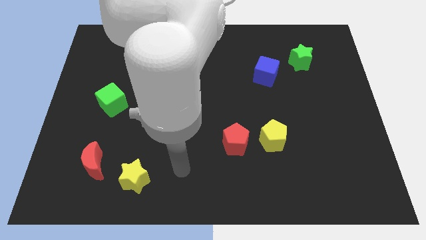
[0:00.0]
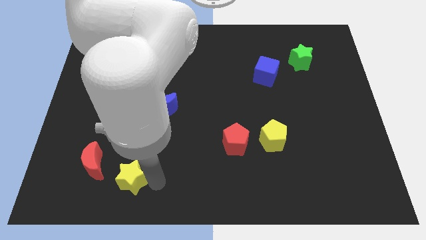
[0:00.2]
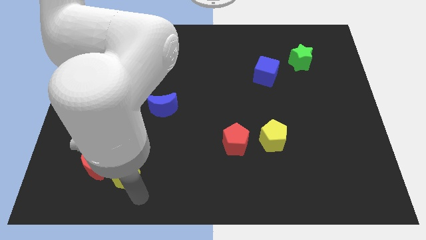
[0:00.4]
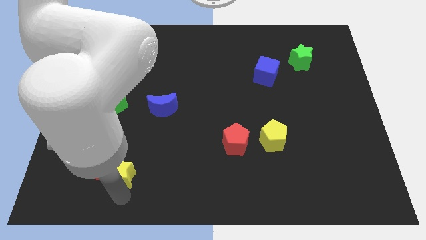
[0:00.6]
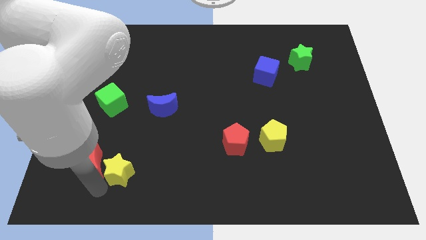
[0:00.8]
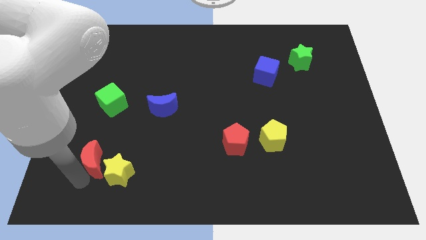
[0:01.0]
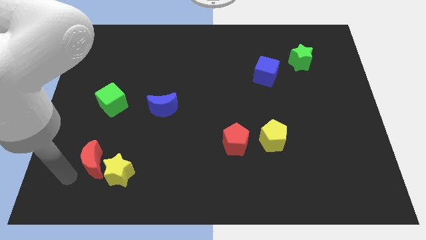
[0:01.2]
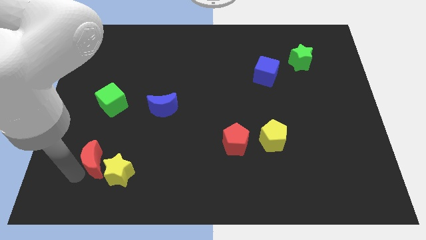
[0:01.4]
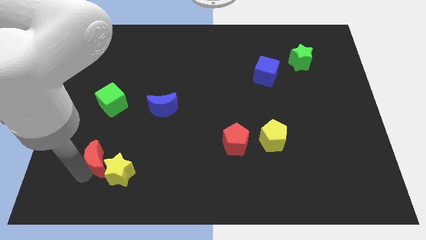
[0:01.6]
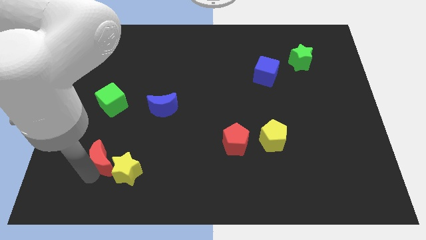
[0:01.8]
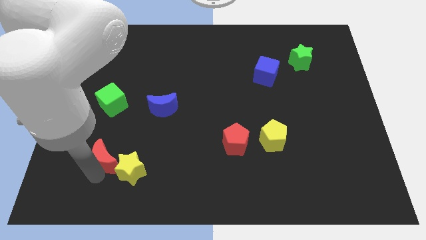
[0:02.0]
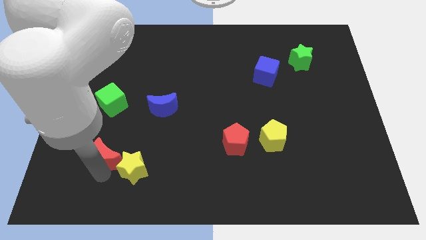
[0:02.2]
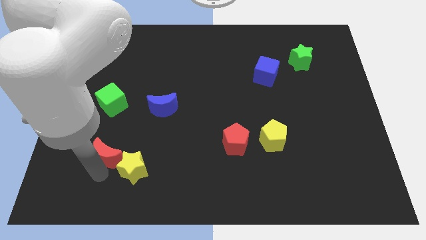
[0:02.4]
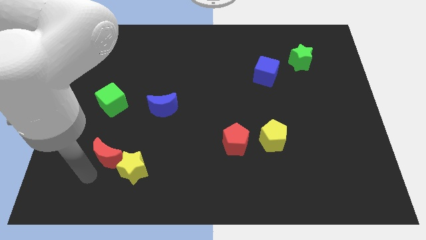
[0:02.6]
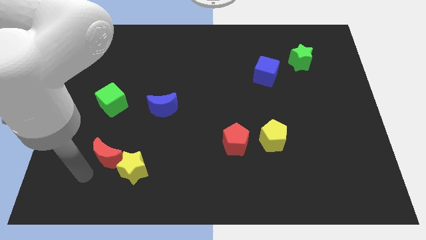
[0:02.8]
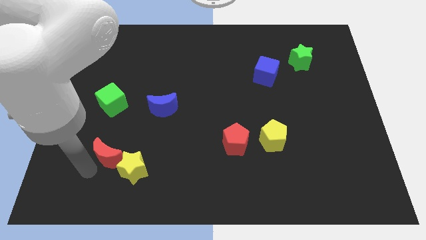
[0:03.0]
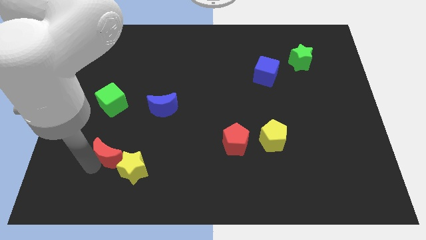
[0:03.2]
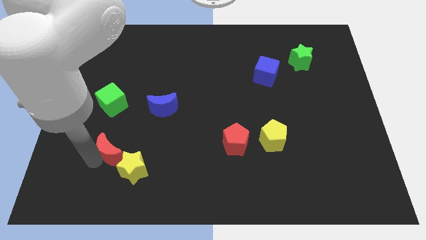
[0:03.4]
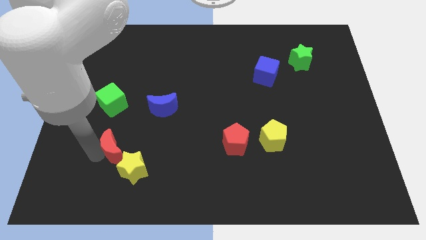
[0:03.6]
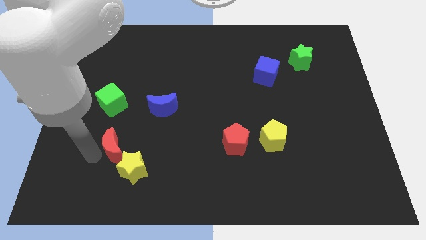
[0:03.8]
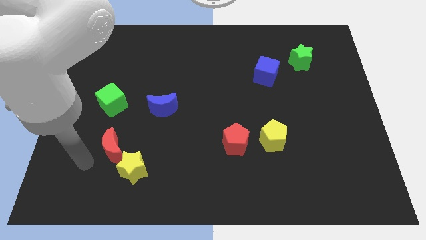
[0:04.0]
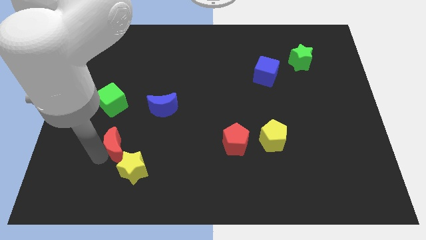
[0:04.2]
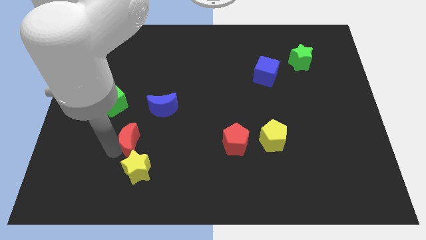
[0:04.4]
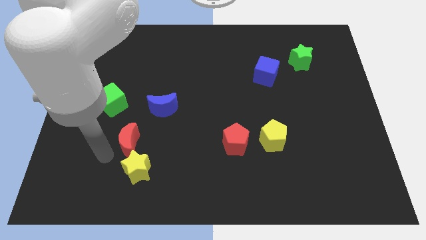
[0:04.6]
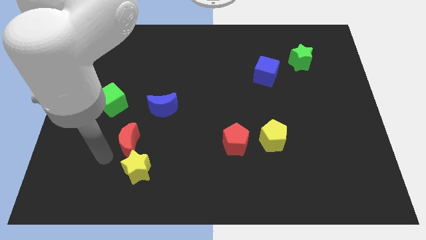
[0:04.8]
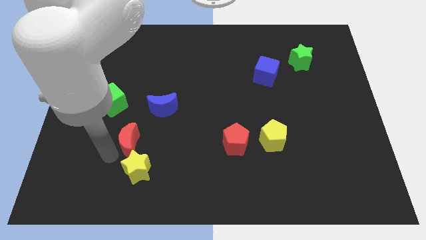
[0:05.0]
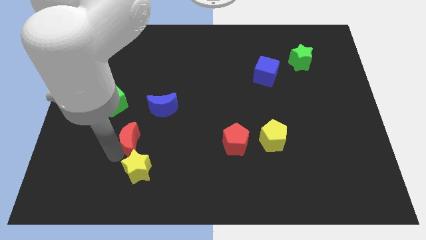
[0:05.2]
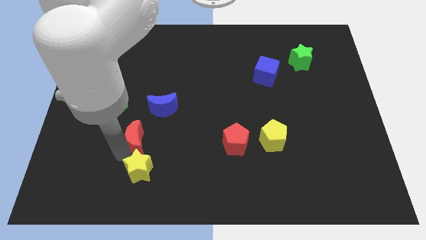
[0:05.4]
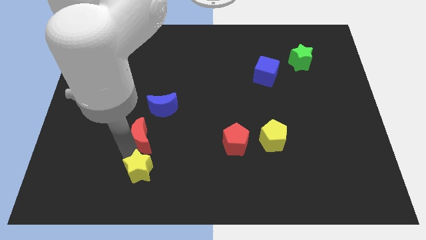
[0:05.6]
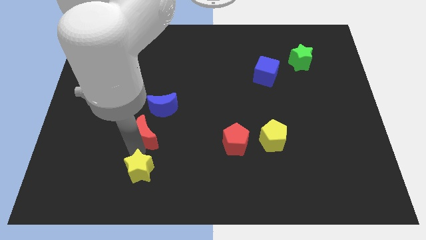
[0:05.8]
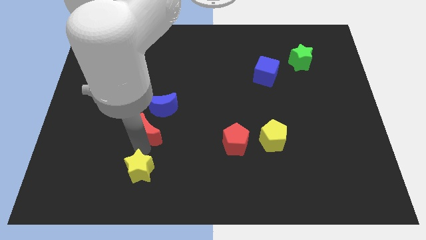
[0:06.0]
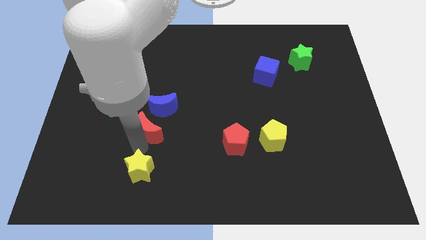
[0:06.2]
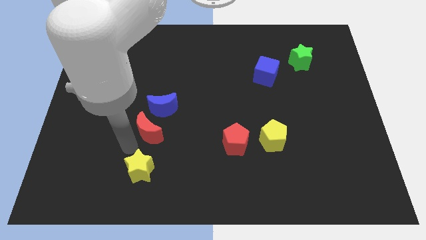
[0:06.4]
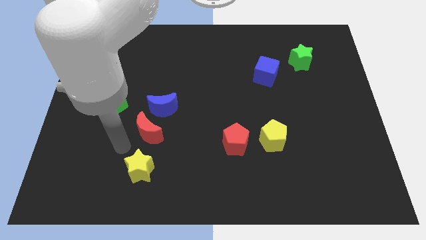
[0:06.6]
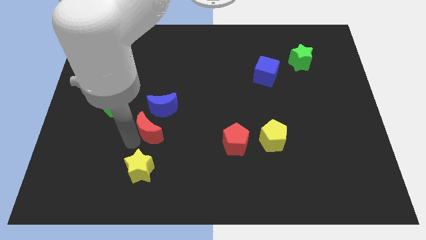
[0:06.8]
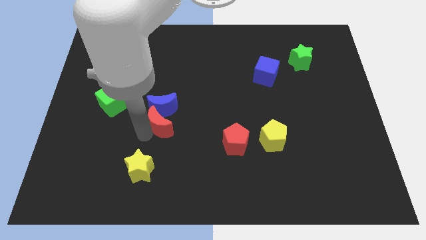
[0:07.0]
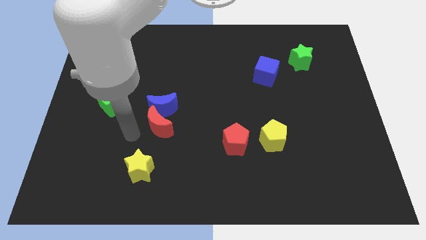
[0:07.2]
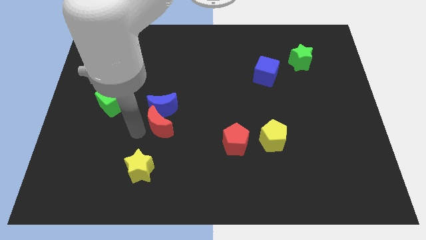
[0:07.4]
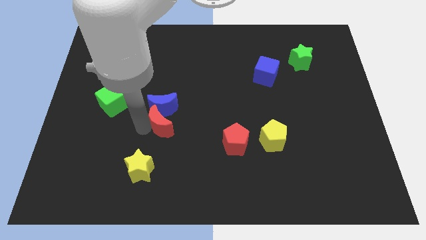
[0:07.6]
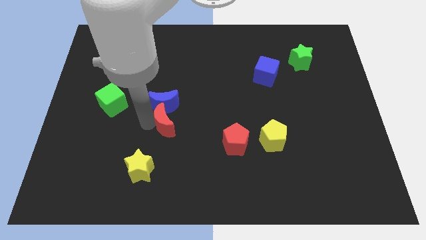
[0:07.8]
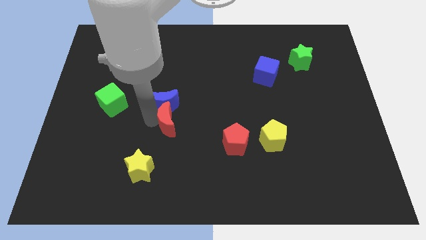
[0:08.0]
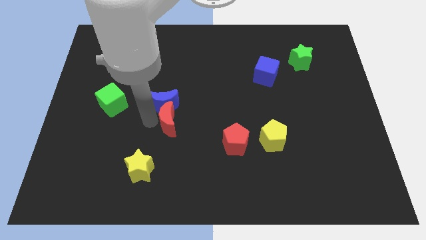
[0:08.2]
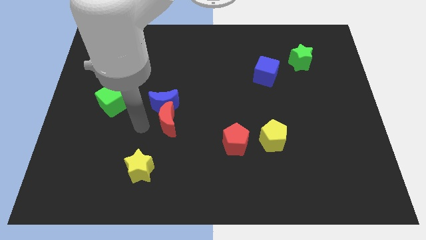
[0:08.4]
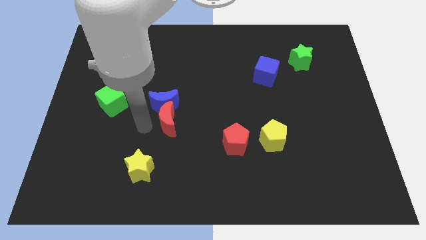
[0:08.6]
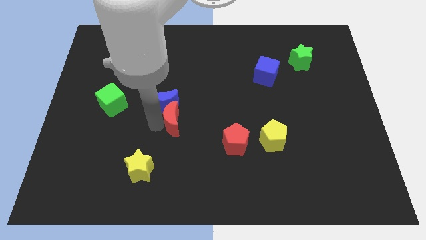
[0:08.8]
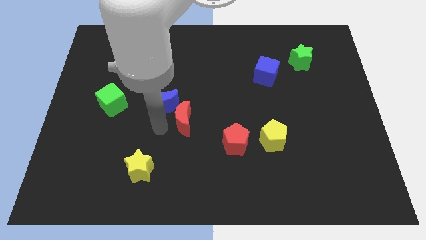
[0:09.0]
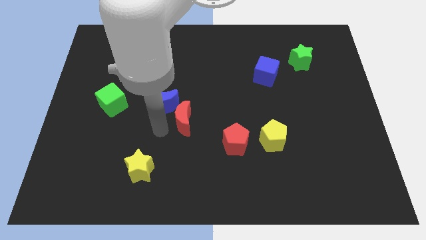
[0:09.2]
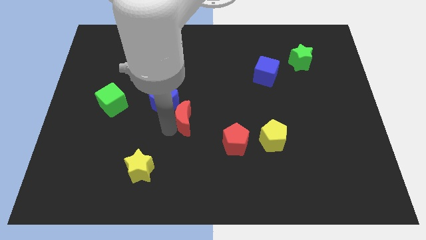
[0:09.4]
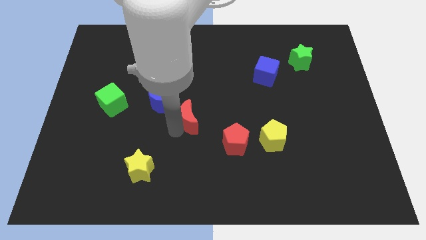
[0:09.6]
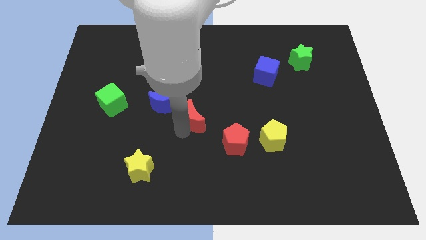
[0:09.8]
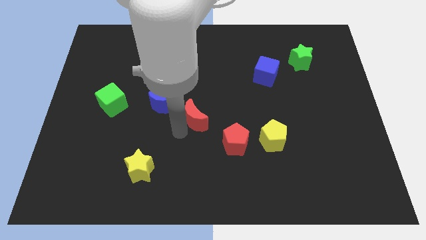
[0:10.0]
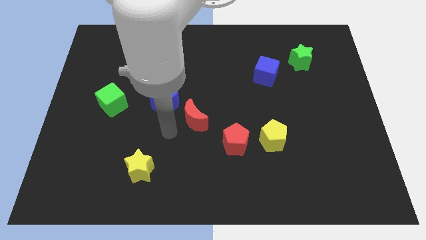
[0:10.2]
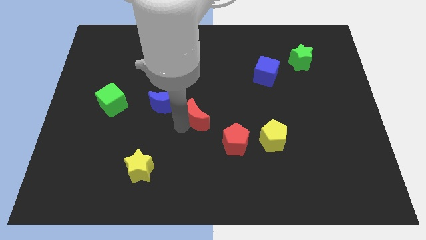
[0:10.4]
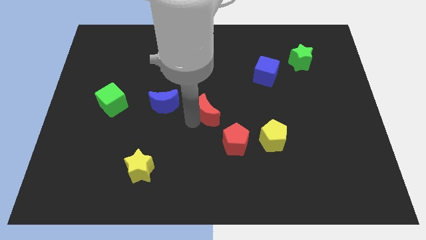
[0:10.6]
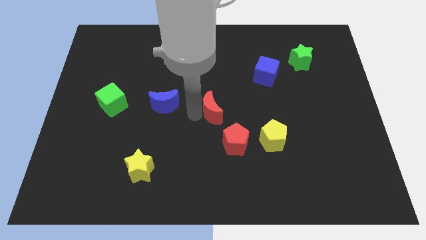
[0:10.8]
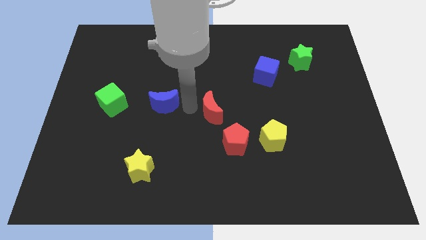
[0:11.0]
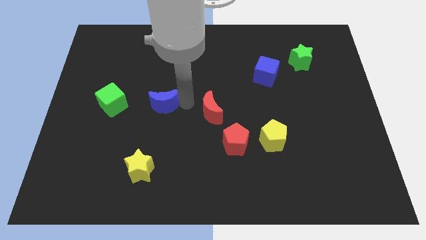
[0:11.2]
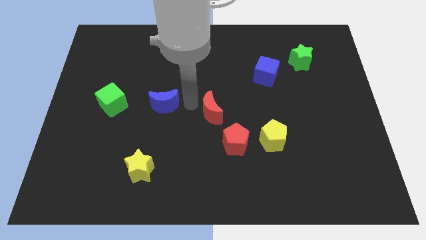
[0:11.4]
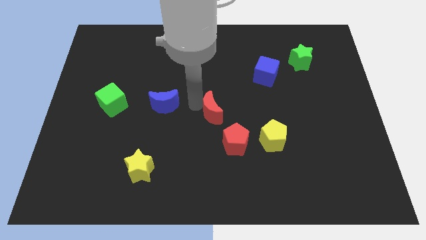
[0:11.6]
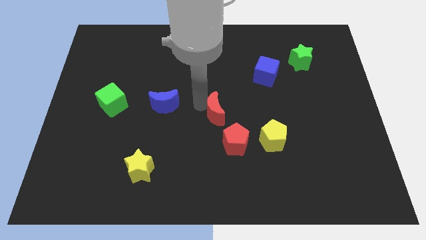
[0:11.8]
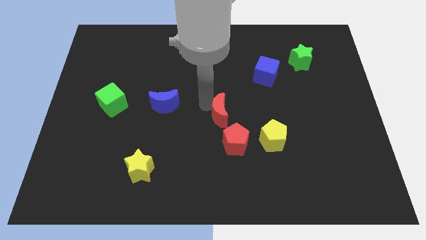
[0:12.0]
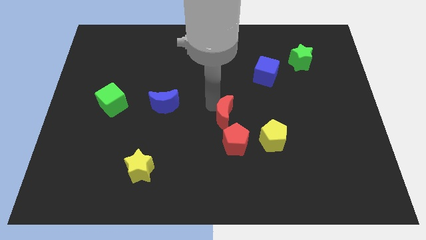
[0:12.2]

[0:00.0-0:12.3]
slide the red moon to the top left of the yellow pentagon

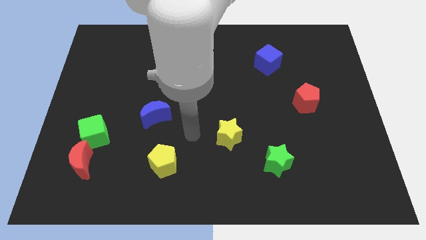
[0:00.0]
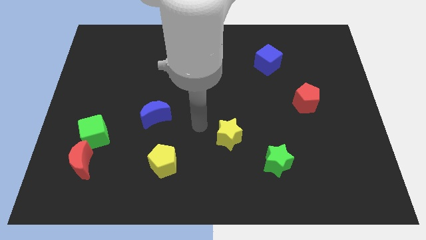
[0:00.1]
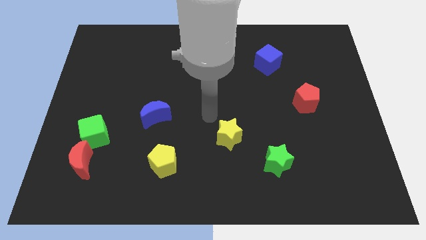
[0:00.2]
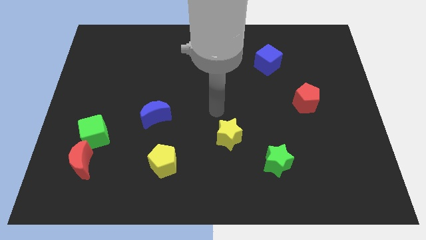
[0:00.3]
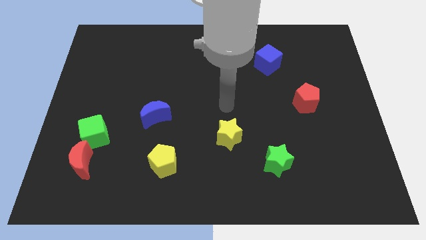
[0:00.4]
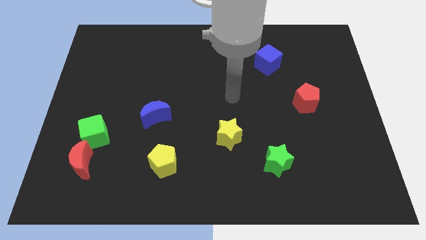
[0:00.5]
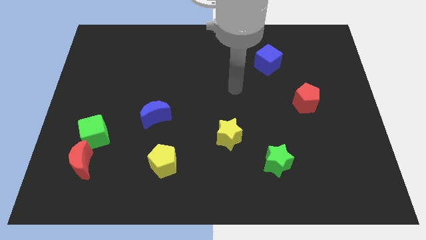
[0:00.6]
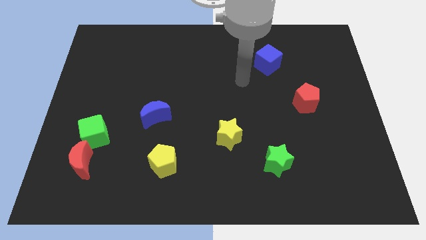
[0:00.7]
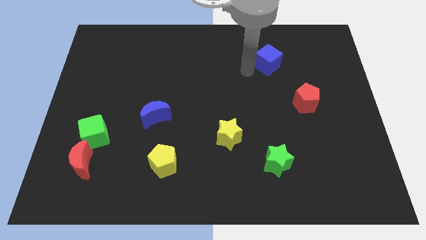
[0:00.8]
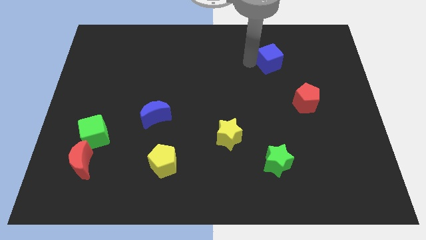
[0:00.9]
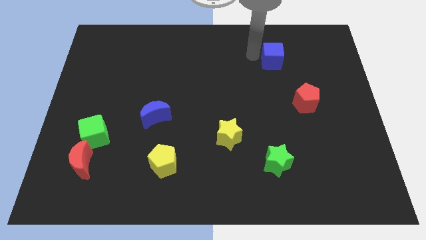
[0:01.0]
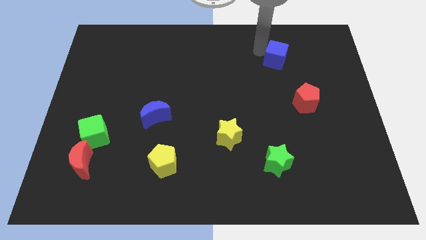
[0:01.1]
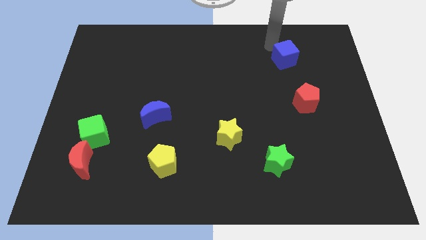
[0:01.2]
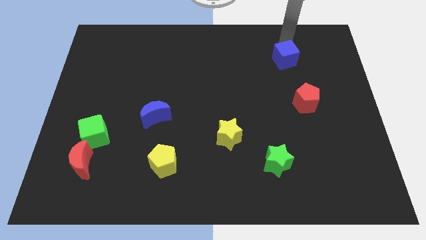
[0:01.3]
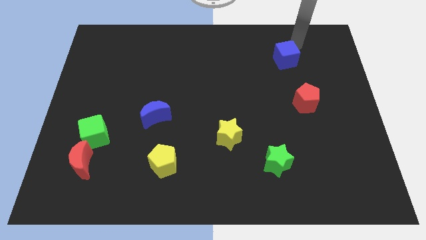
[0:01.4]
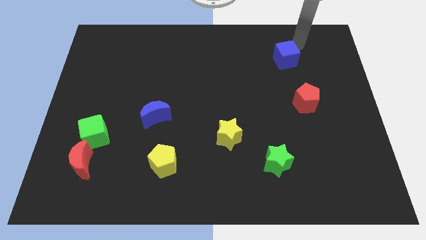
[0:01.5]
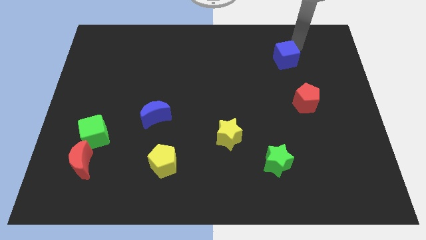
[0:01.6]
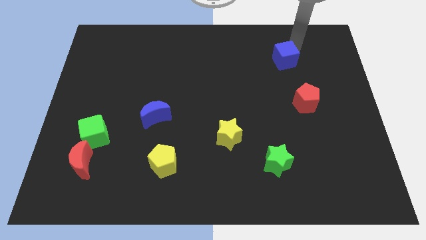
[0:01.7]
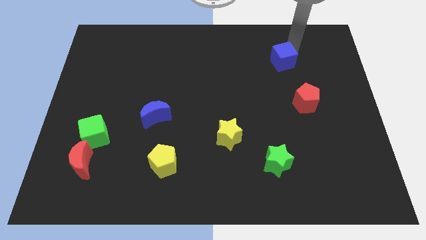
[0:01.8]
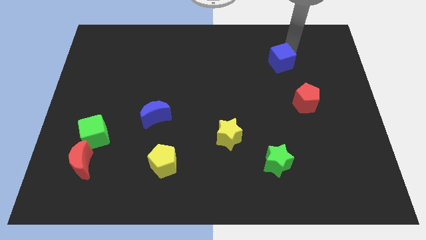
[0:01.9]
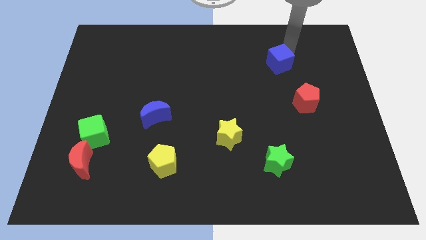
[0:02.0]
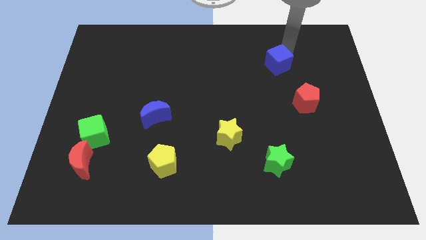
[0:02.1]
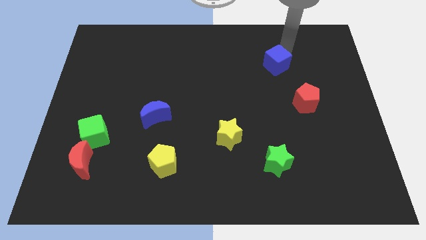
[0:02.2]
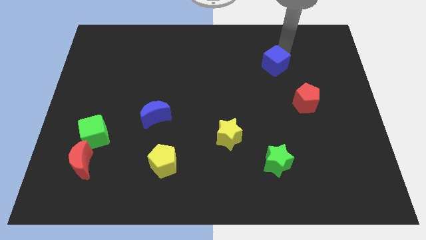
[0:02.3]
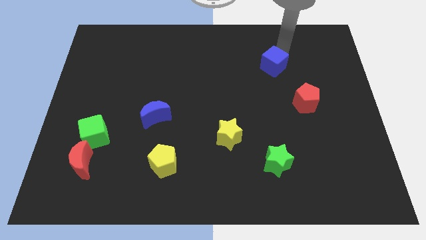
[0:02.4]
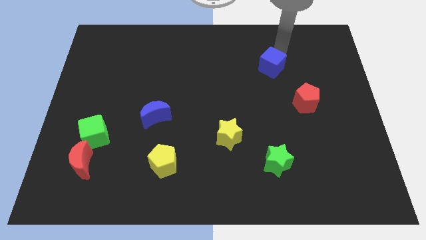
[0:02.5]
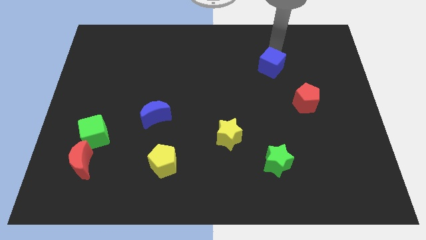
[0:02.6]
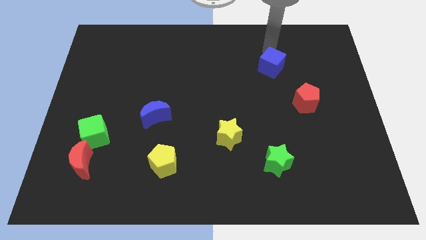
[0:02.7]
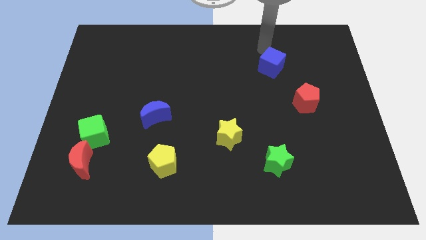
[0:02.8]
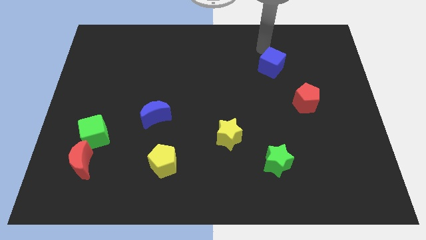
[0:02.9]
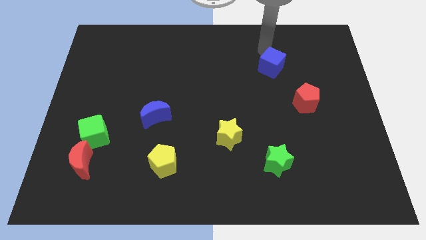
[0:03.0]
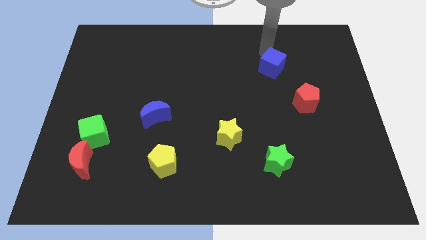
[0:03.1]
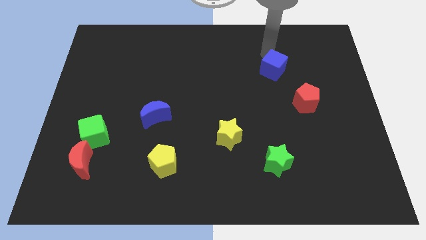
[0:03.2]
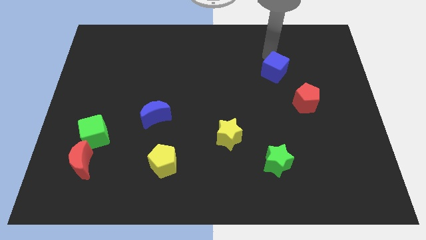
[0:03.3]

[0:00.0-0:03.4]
put the blue cube to the top left side of the red pentagon
